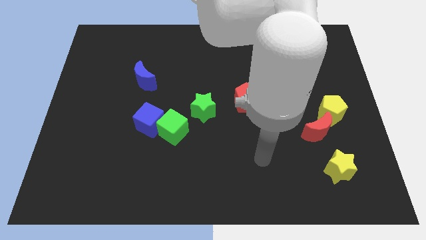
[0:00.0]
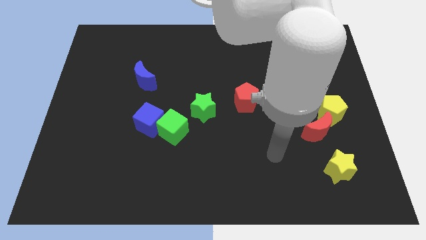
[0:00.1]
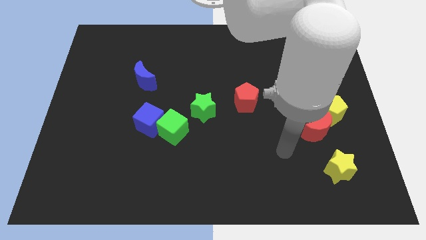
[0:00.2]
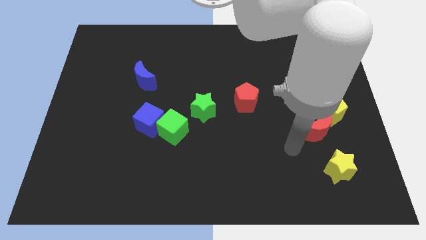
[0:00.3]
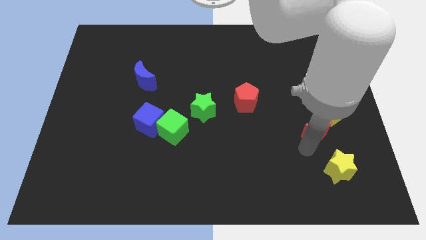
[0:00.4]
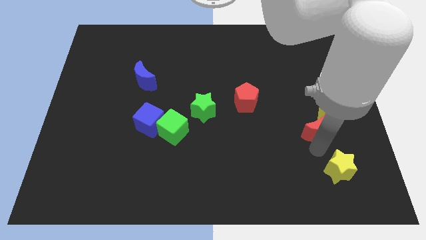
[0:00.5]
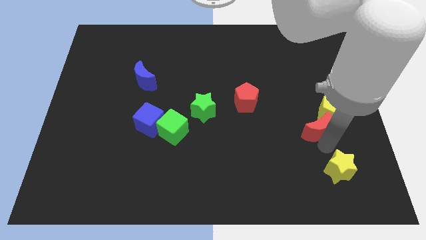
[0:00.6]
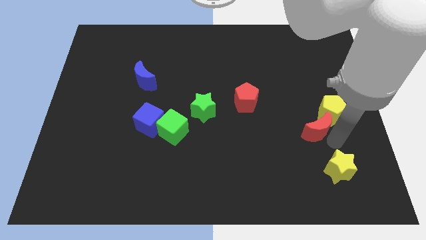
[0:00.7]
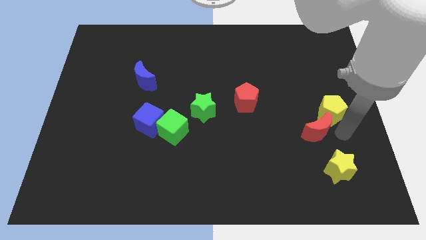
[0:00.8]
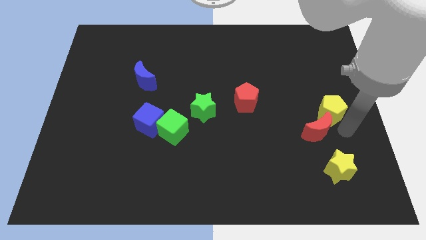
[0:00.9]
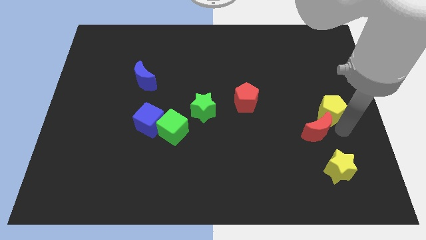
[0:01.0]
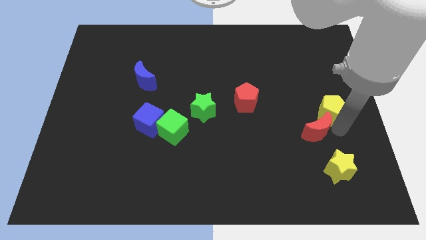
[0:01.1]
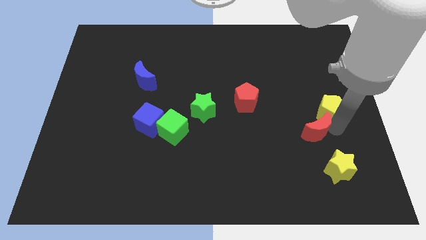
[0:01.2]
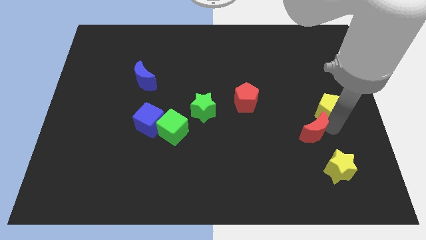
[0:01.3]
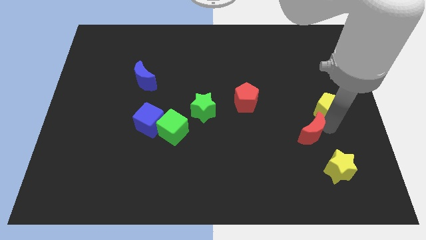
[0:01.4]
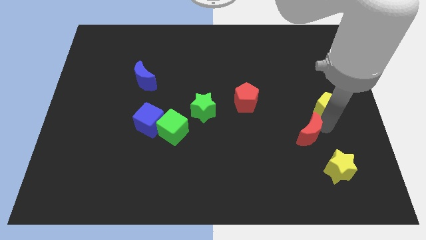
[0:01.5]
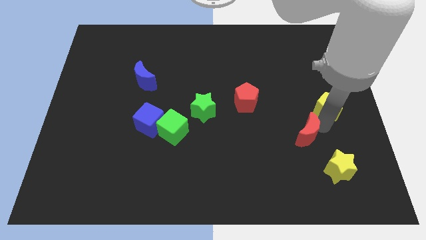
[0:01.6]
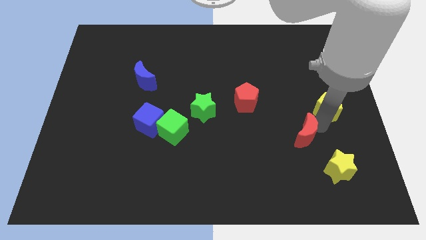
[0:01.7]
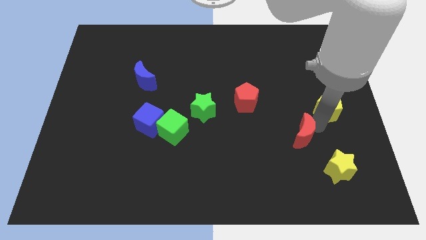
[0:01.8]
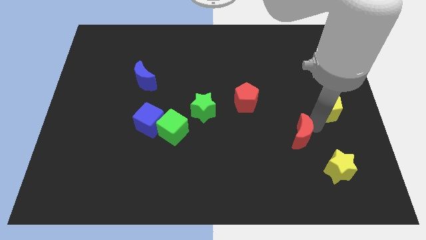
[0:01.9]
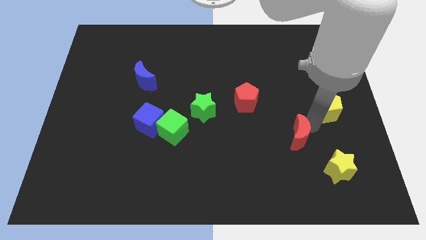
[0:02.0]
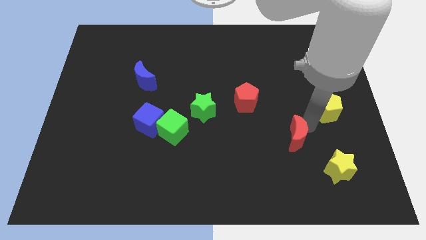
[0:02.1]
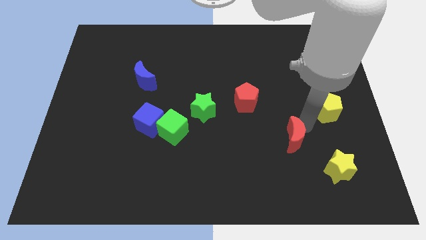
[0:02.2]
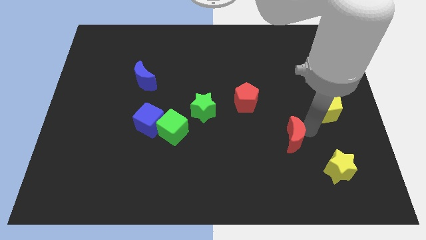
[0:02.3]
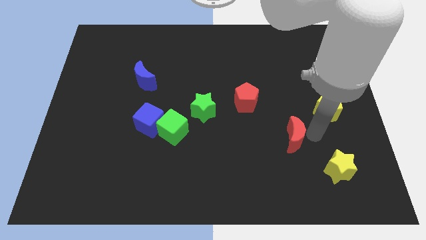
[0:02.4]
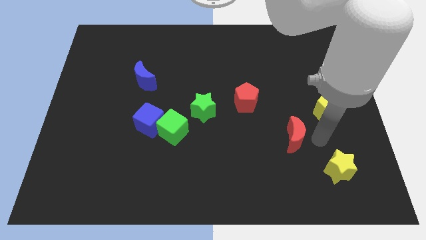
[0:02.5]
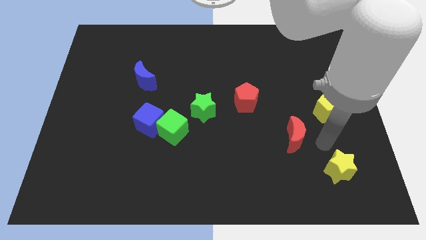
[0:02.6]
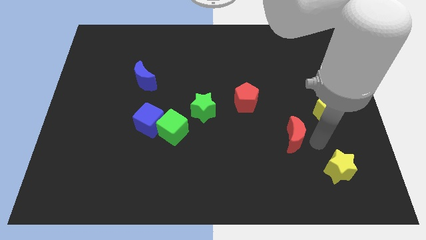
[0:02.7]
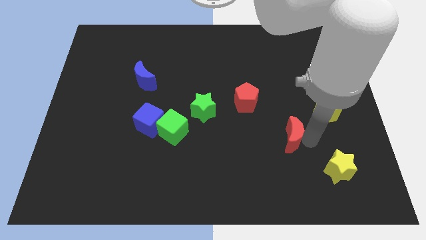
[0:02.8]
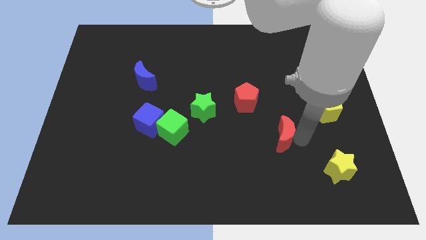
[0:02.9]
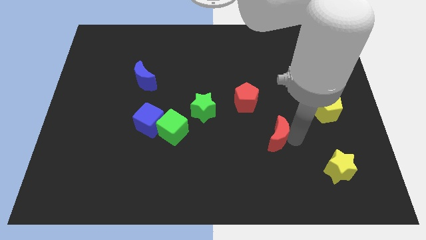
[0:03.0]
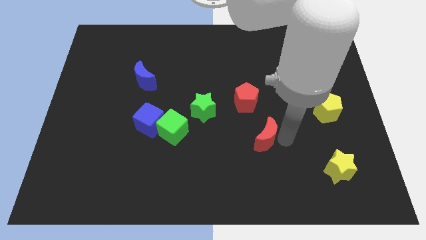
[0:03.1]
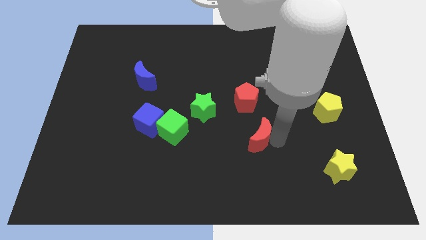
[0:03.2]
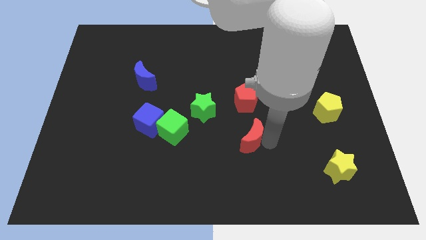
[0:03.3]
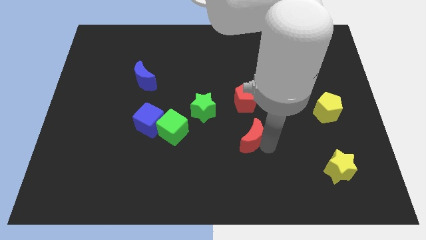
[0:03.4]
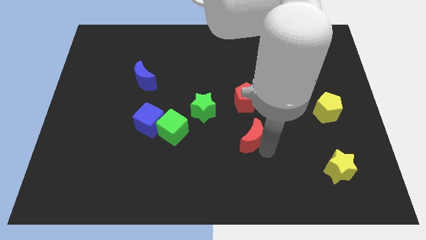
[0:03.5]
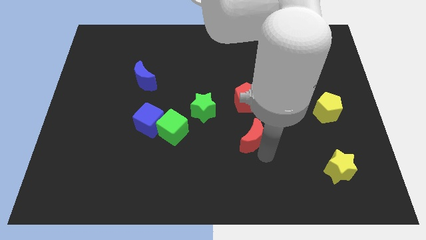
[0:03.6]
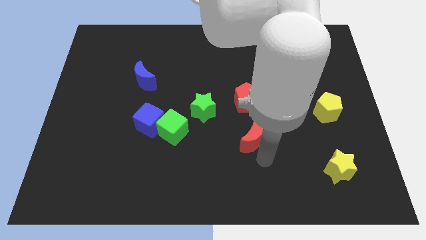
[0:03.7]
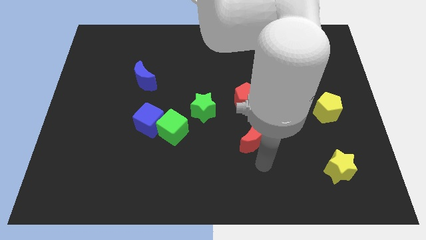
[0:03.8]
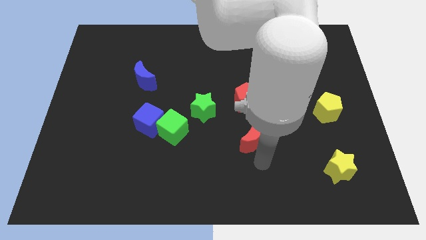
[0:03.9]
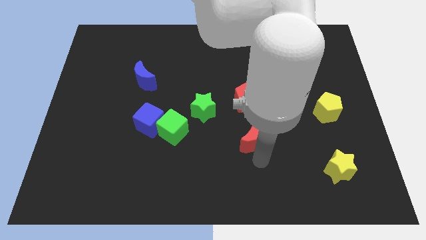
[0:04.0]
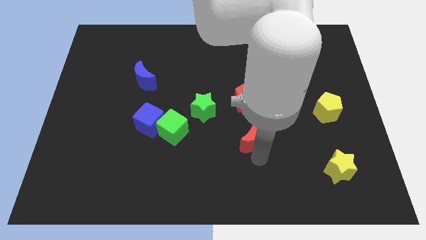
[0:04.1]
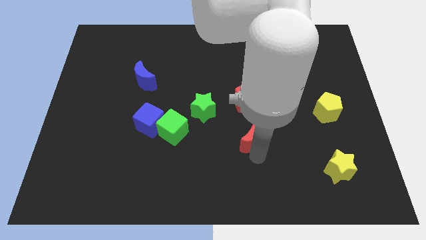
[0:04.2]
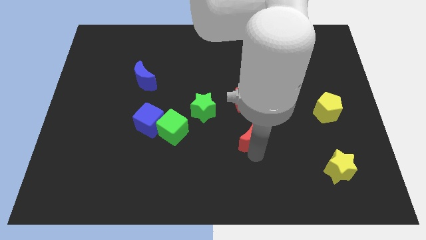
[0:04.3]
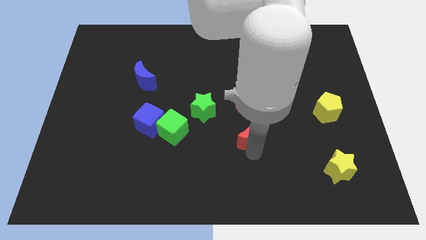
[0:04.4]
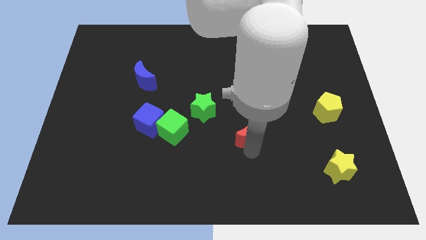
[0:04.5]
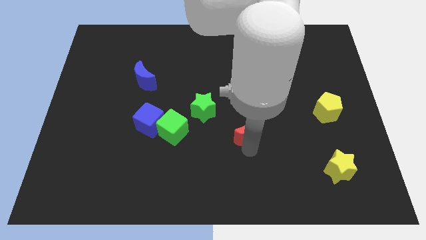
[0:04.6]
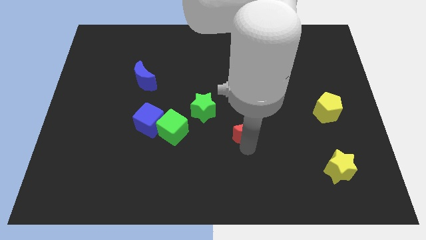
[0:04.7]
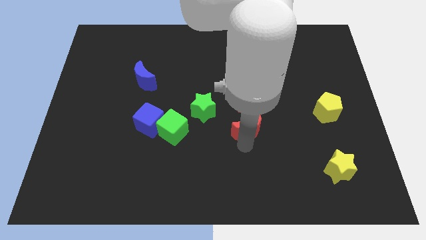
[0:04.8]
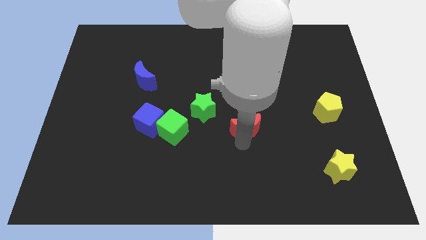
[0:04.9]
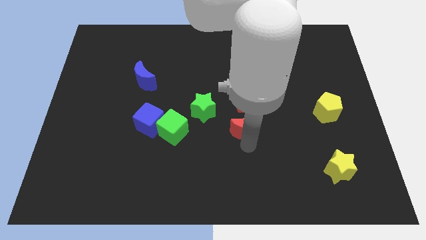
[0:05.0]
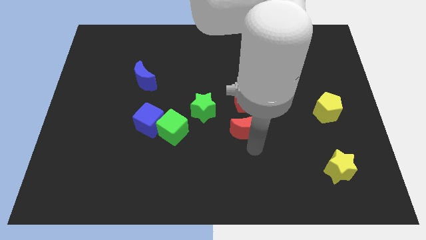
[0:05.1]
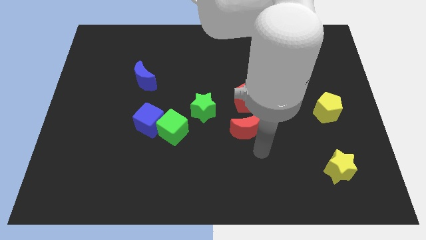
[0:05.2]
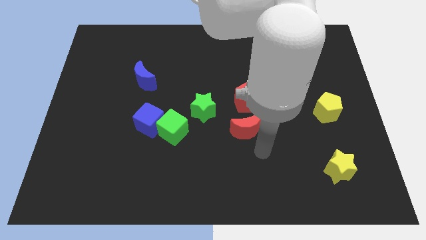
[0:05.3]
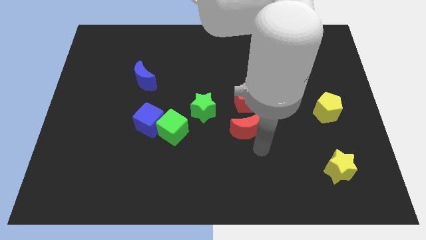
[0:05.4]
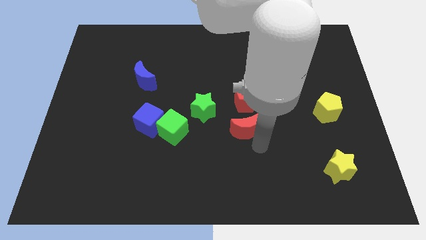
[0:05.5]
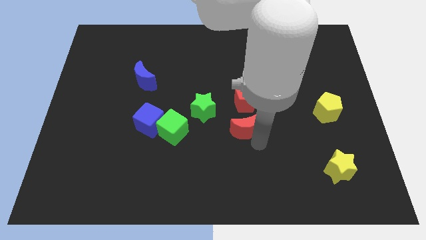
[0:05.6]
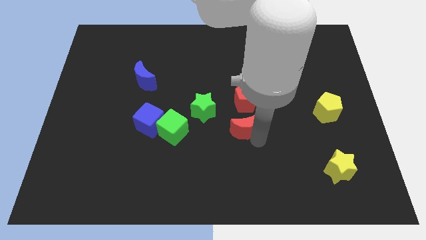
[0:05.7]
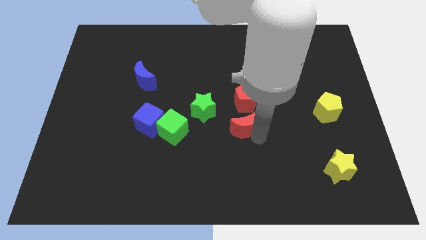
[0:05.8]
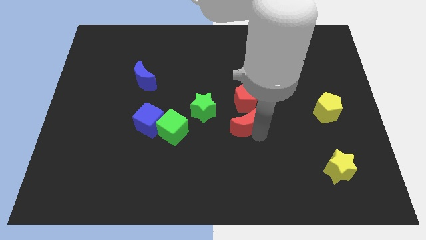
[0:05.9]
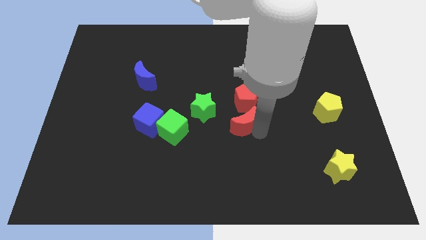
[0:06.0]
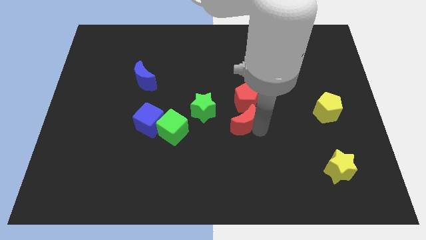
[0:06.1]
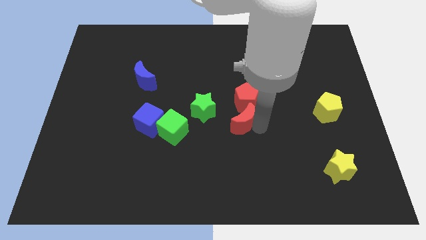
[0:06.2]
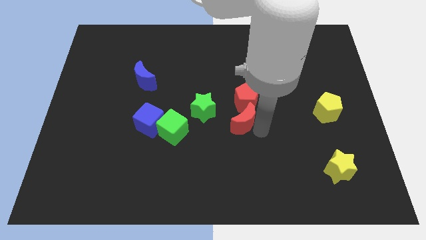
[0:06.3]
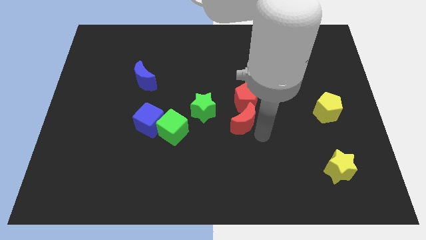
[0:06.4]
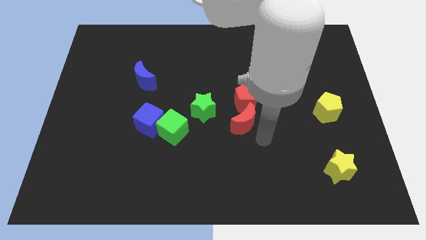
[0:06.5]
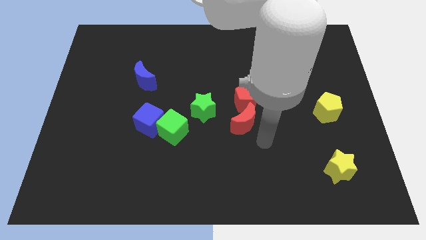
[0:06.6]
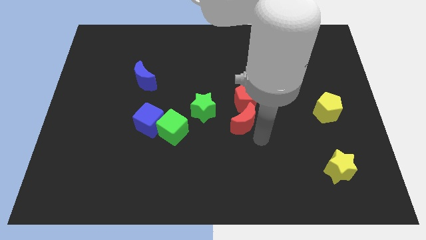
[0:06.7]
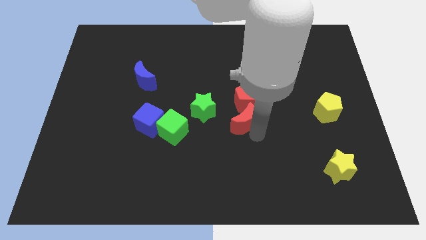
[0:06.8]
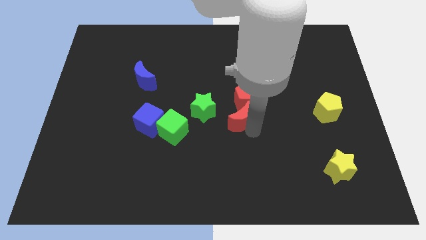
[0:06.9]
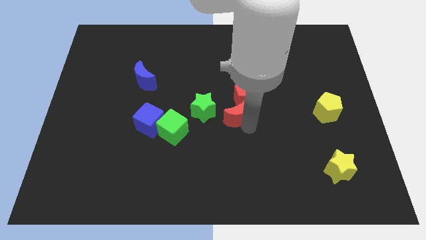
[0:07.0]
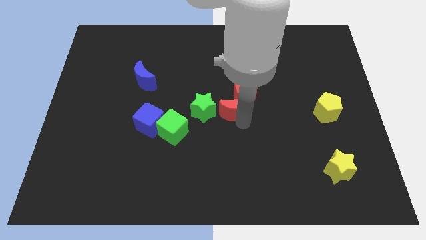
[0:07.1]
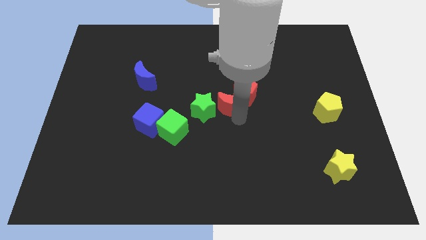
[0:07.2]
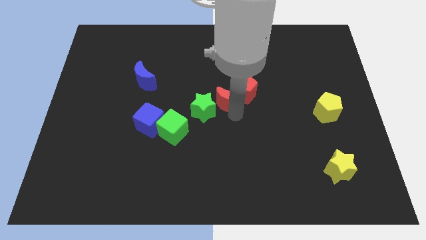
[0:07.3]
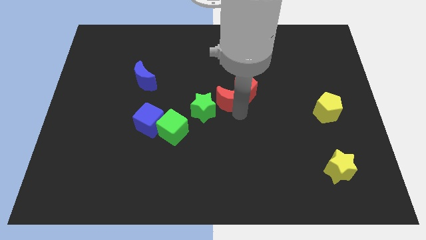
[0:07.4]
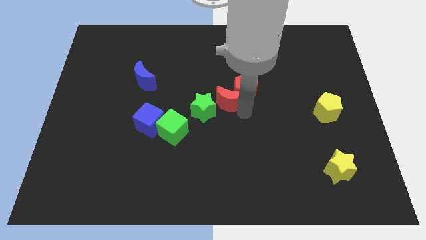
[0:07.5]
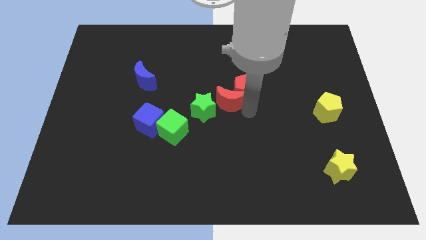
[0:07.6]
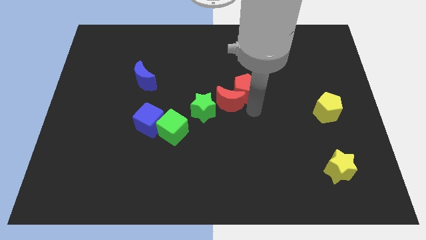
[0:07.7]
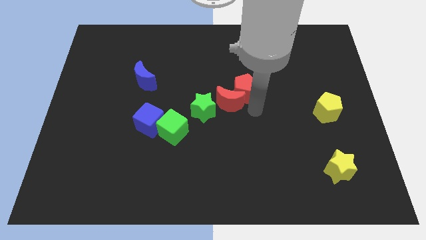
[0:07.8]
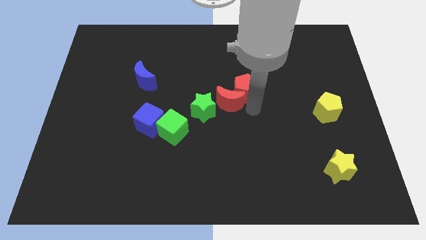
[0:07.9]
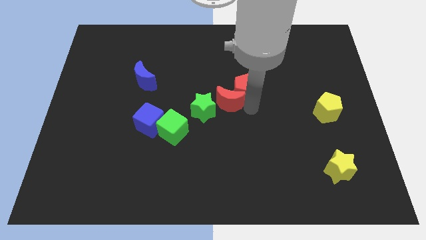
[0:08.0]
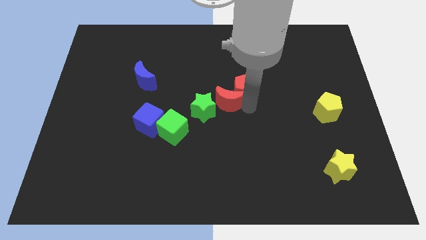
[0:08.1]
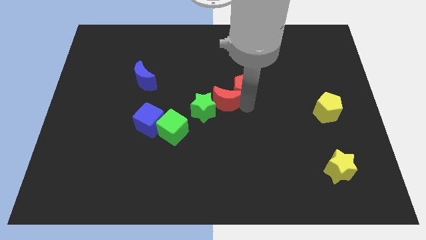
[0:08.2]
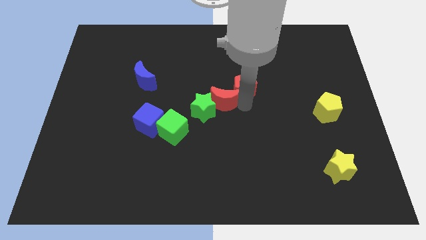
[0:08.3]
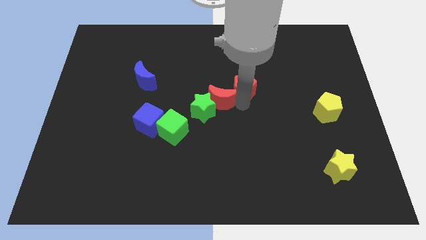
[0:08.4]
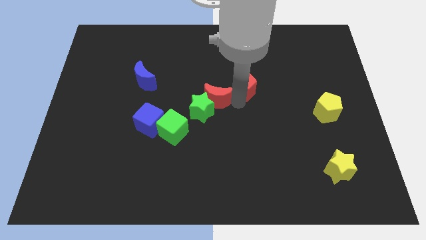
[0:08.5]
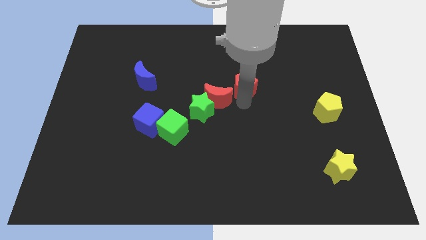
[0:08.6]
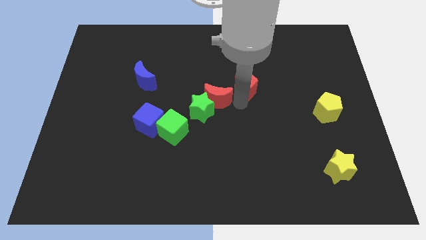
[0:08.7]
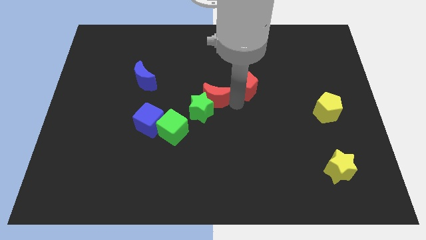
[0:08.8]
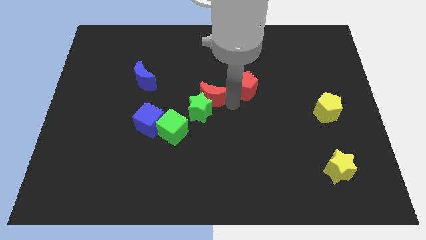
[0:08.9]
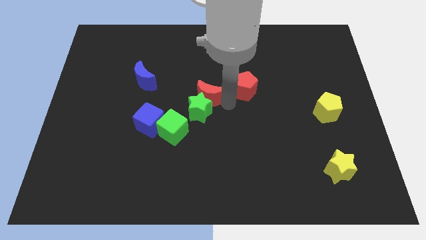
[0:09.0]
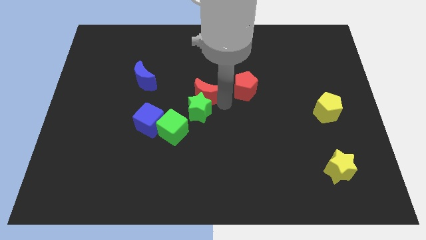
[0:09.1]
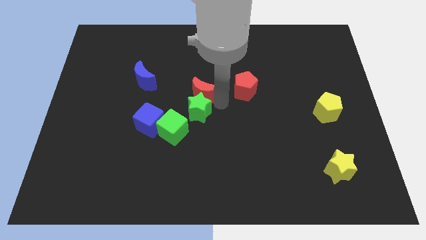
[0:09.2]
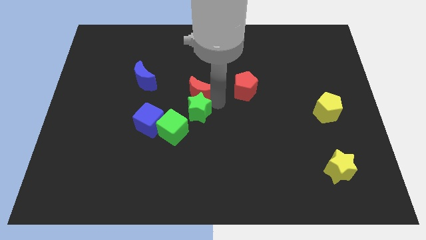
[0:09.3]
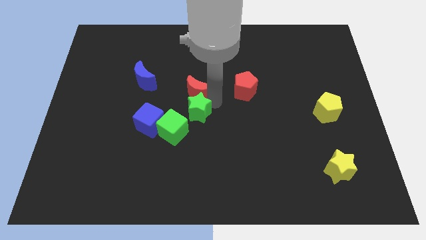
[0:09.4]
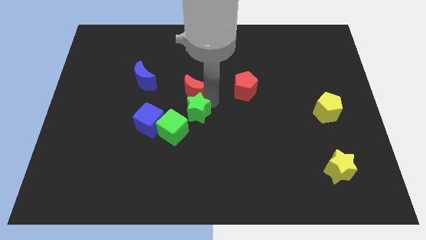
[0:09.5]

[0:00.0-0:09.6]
put the red moon to the top of the green cube
